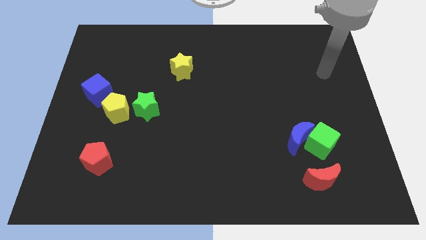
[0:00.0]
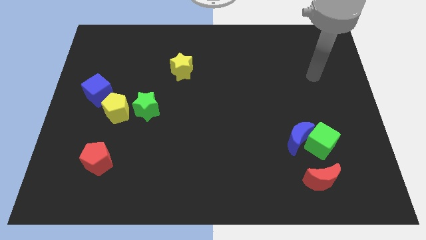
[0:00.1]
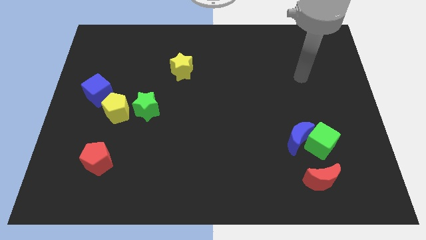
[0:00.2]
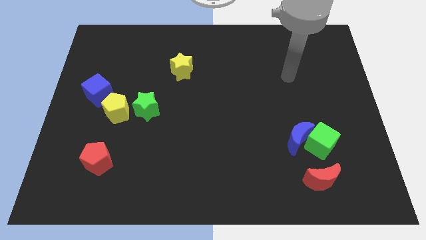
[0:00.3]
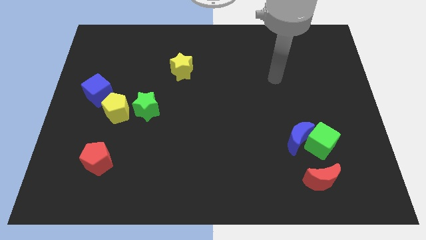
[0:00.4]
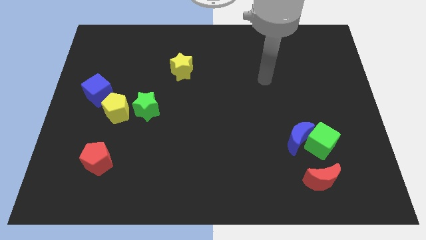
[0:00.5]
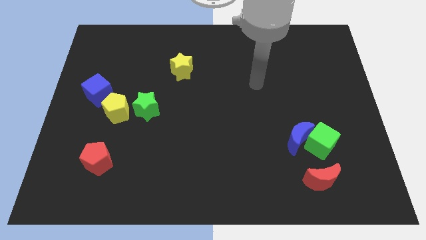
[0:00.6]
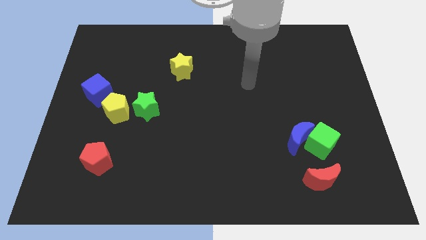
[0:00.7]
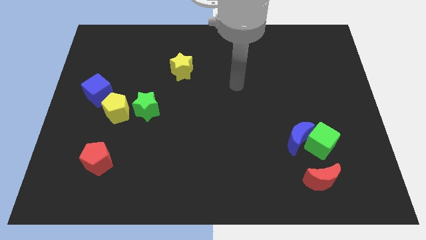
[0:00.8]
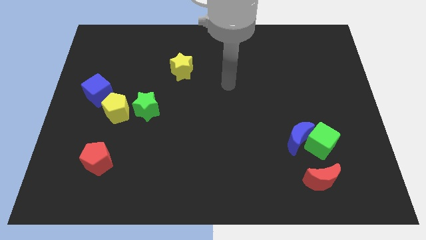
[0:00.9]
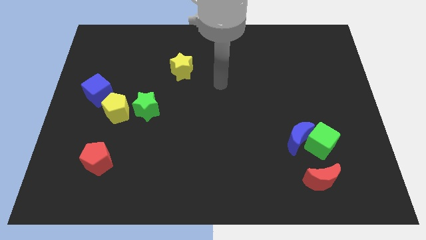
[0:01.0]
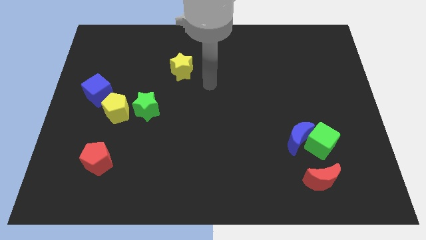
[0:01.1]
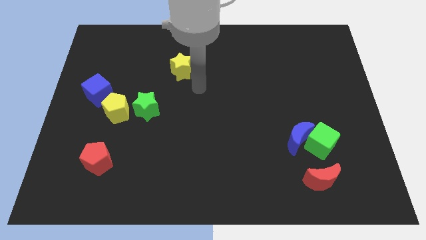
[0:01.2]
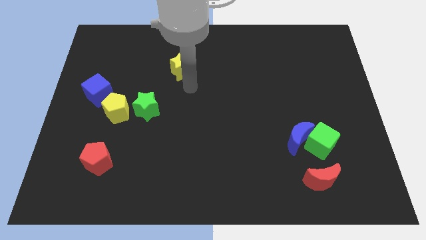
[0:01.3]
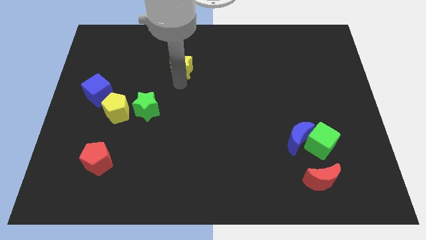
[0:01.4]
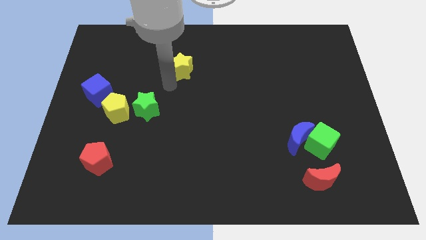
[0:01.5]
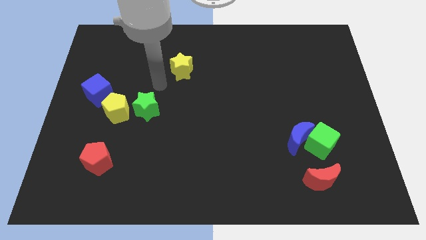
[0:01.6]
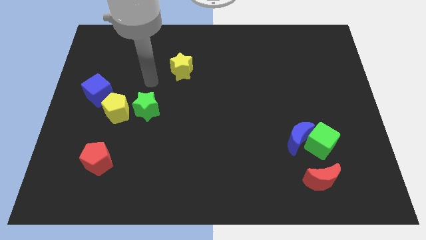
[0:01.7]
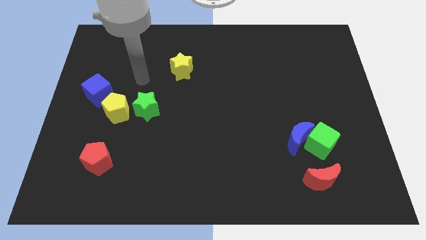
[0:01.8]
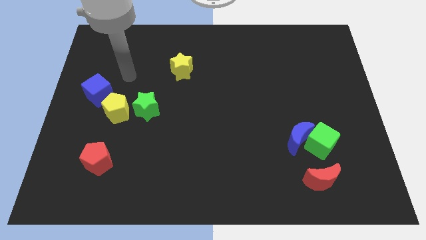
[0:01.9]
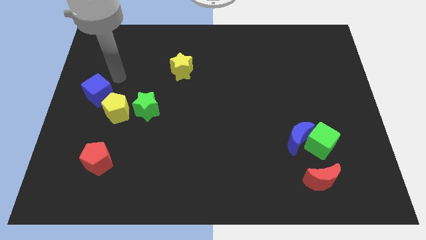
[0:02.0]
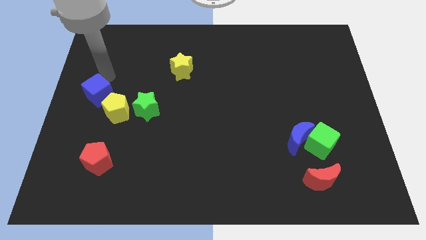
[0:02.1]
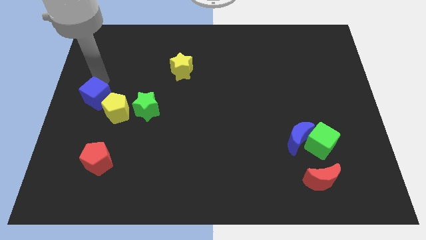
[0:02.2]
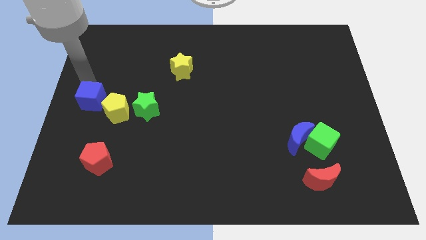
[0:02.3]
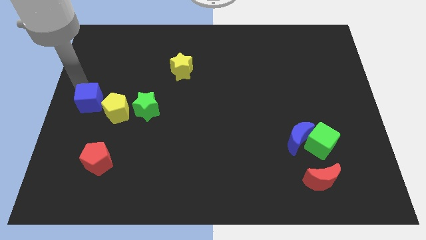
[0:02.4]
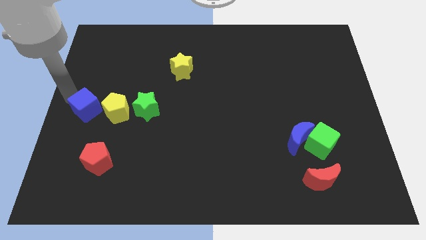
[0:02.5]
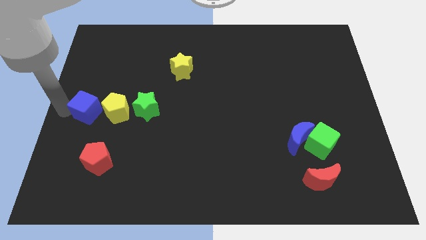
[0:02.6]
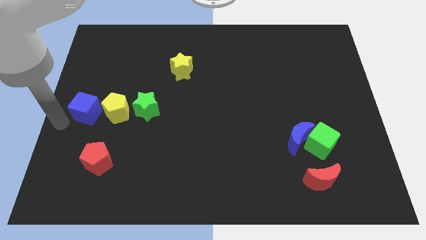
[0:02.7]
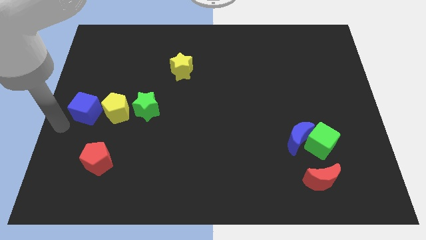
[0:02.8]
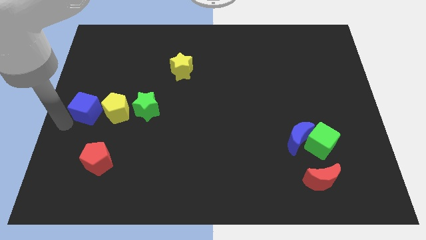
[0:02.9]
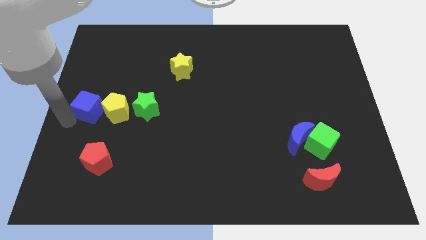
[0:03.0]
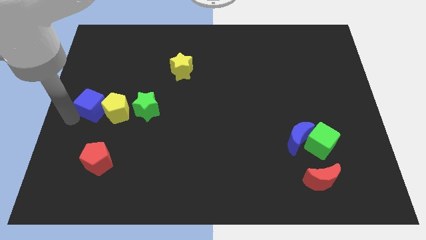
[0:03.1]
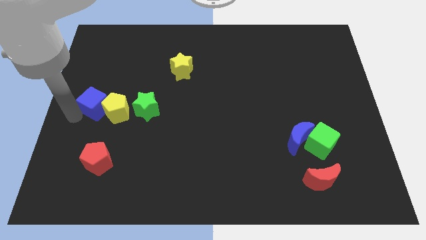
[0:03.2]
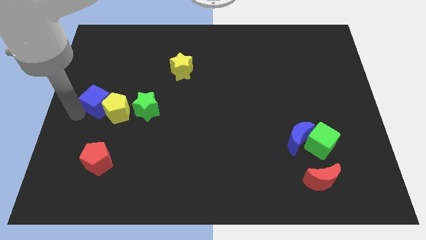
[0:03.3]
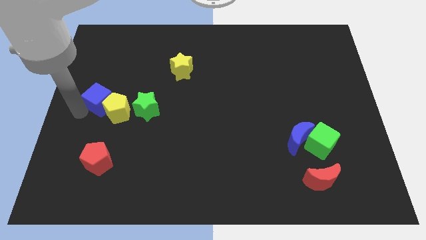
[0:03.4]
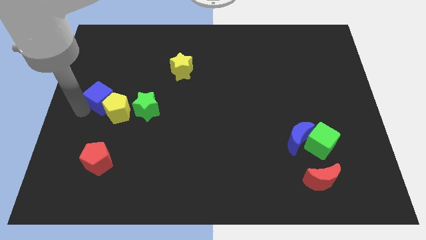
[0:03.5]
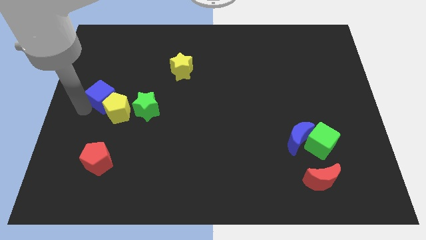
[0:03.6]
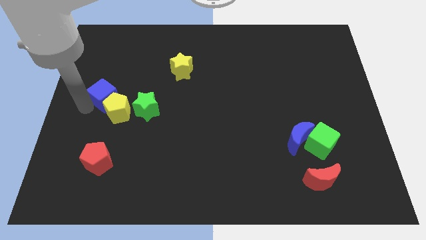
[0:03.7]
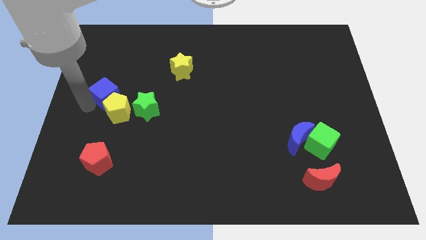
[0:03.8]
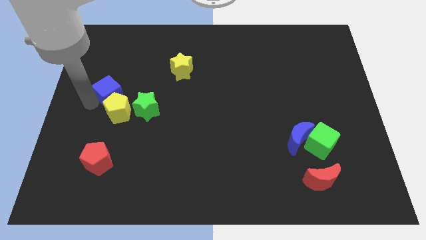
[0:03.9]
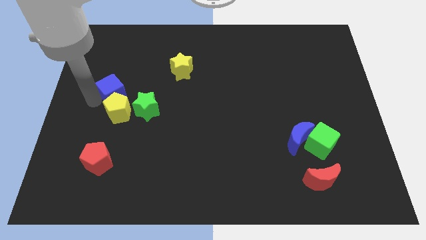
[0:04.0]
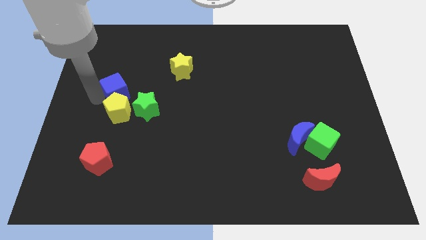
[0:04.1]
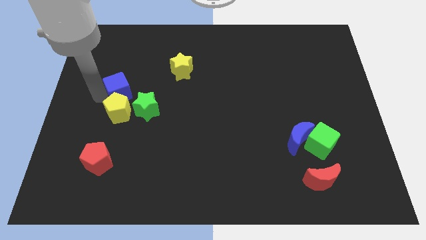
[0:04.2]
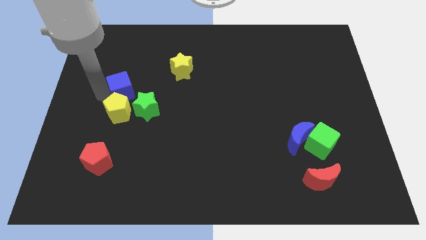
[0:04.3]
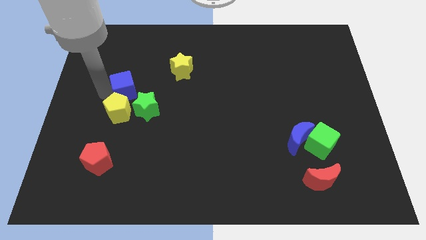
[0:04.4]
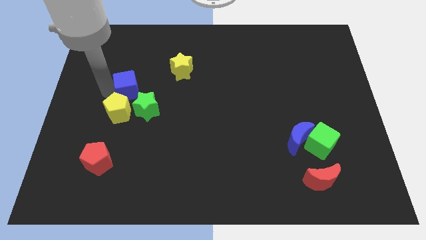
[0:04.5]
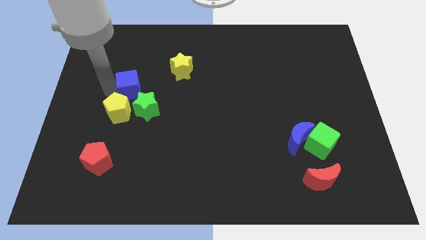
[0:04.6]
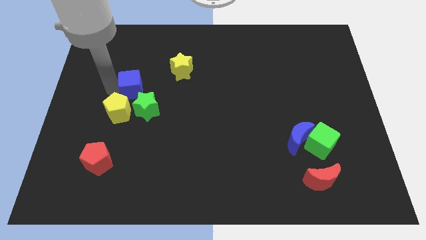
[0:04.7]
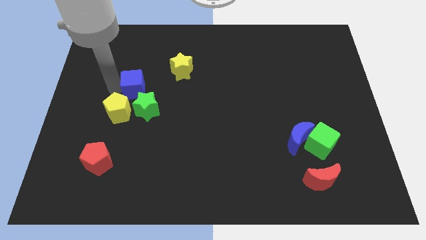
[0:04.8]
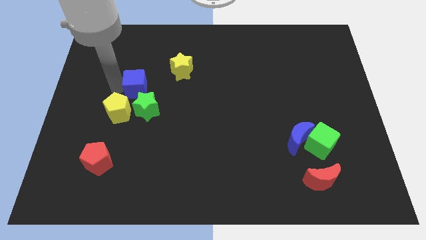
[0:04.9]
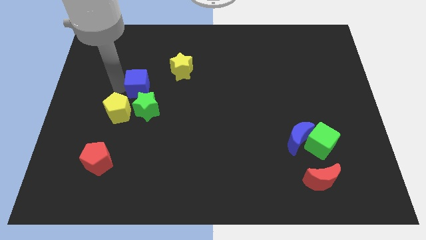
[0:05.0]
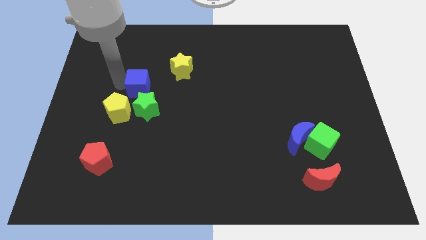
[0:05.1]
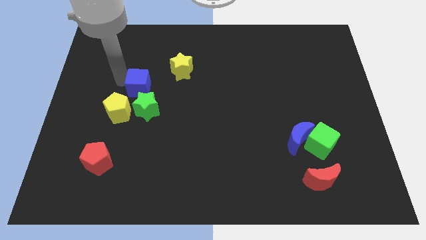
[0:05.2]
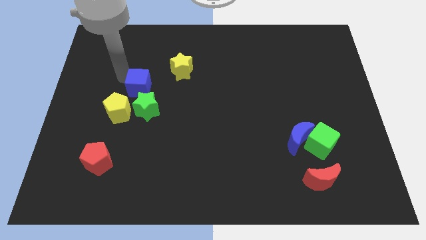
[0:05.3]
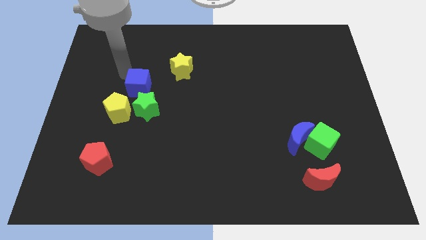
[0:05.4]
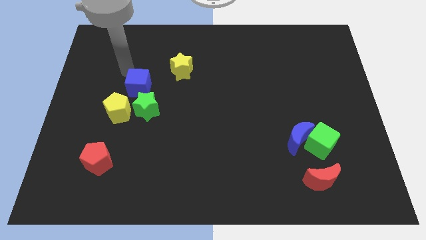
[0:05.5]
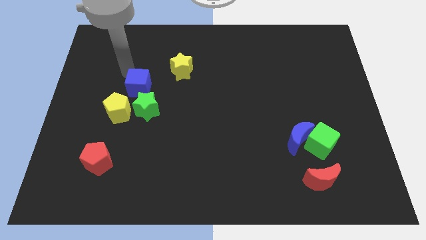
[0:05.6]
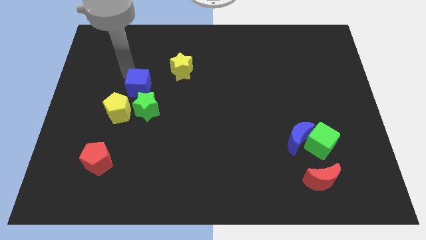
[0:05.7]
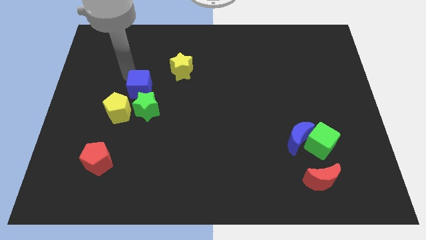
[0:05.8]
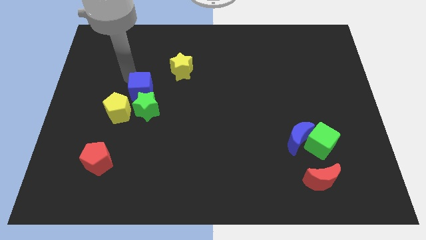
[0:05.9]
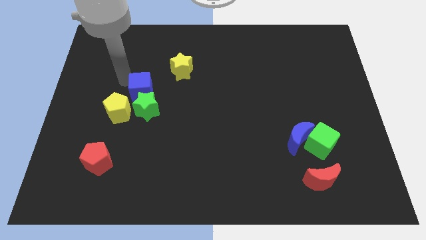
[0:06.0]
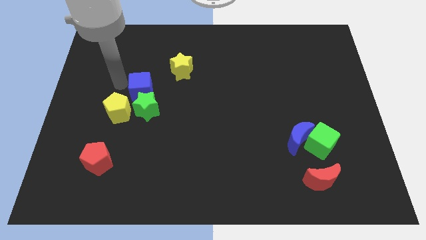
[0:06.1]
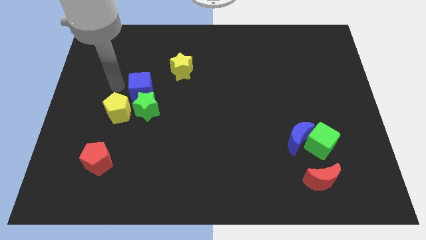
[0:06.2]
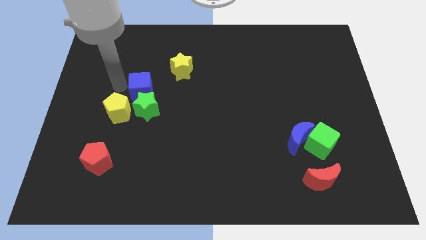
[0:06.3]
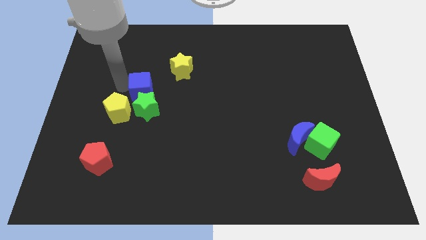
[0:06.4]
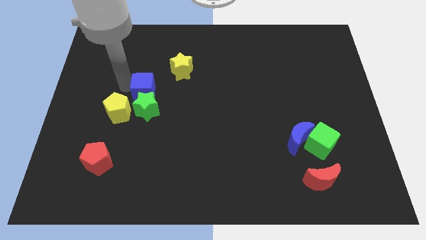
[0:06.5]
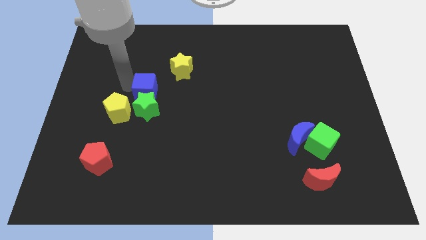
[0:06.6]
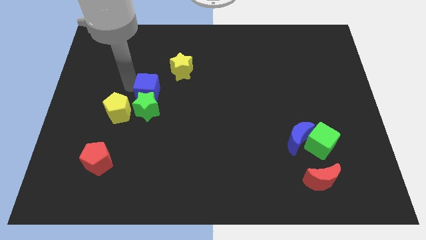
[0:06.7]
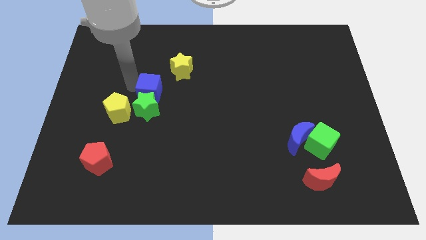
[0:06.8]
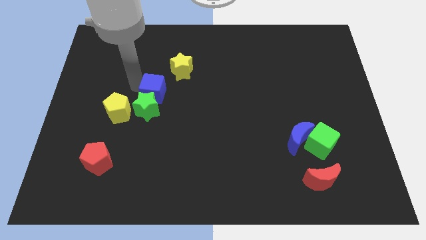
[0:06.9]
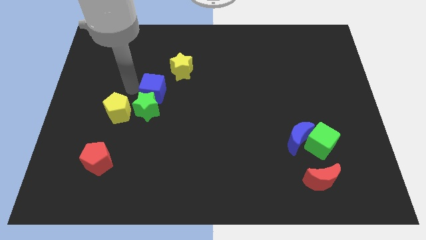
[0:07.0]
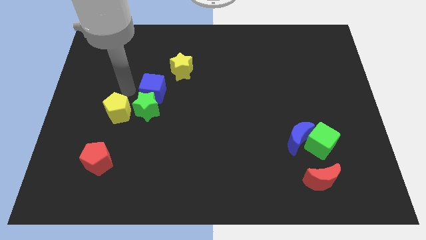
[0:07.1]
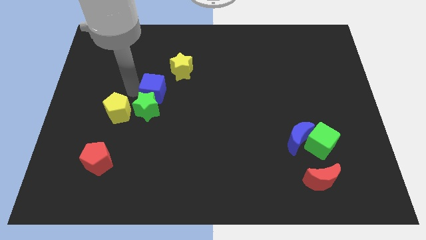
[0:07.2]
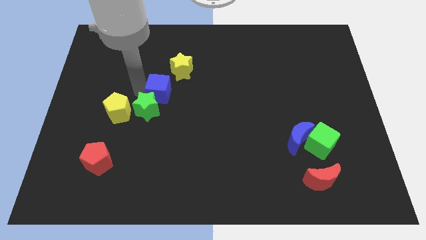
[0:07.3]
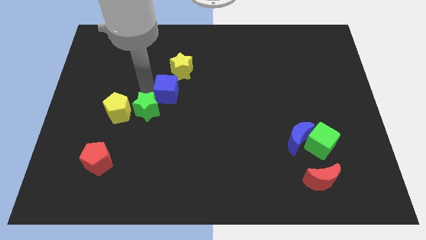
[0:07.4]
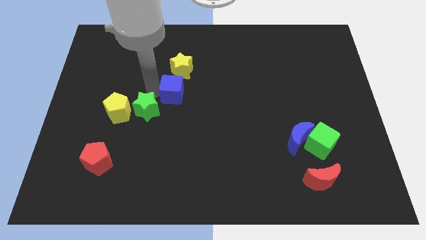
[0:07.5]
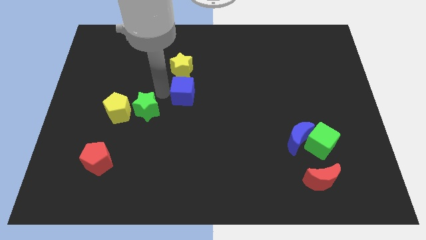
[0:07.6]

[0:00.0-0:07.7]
slide the blue cube right
